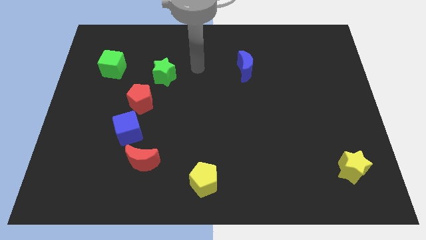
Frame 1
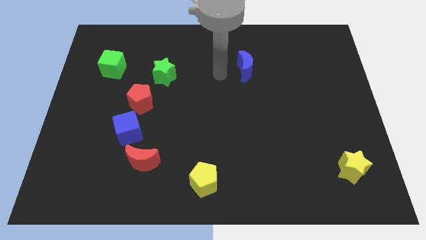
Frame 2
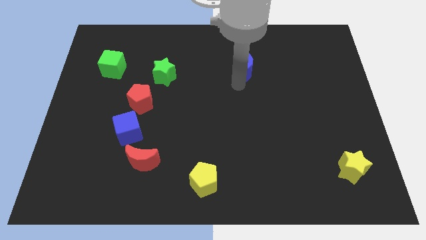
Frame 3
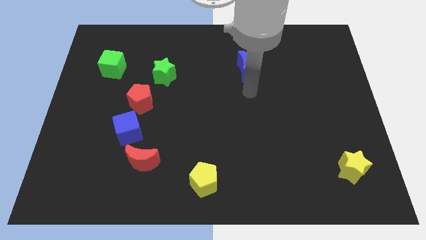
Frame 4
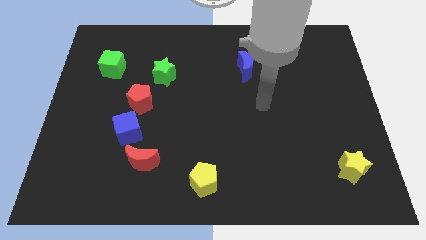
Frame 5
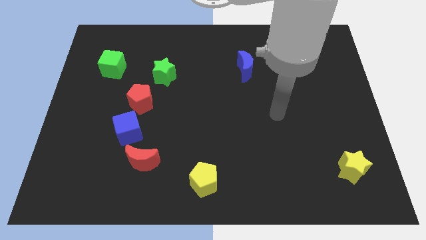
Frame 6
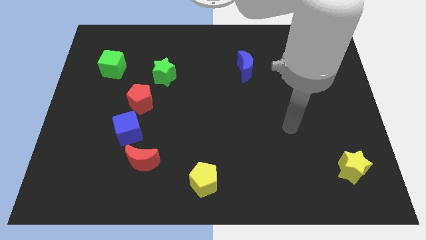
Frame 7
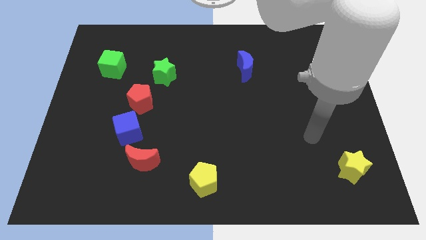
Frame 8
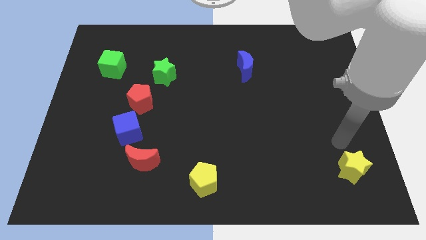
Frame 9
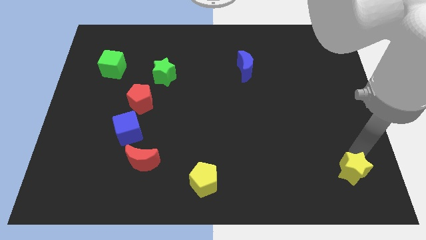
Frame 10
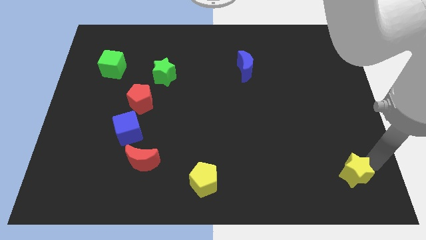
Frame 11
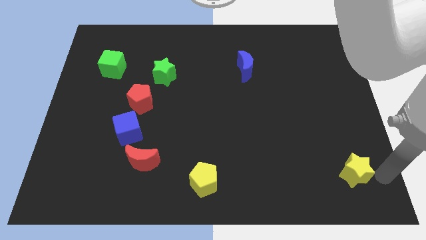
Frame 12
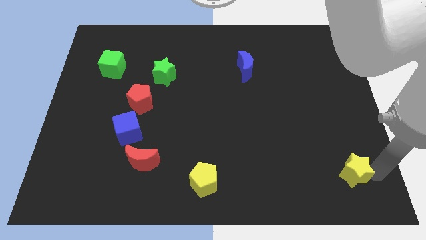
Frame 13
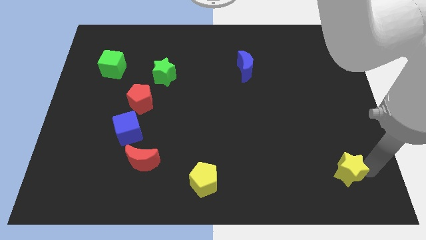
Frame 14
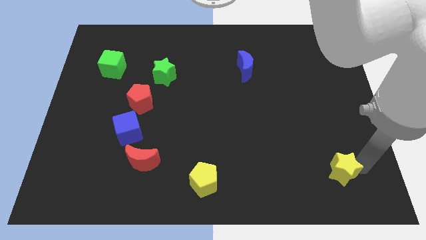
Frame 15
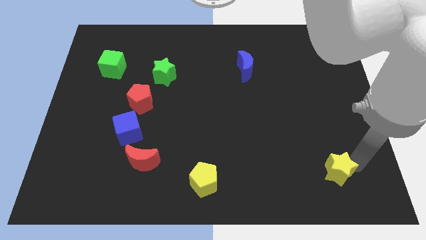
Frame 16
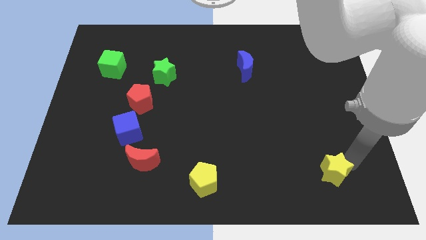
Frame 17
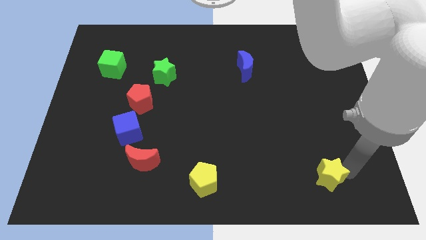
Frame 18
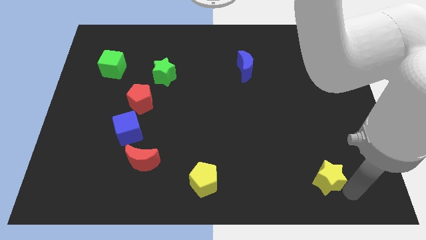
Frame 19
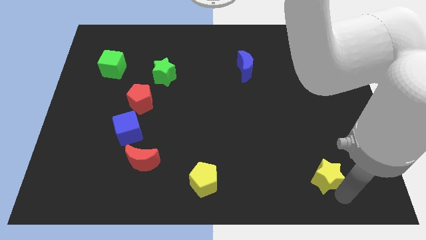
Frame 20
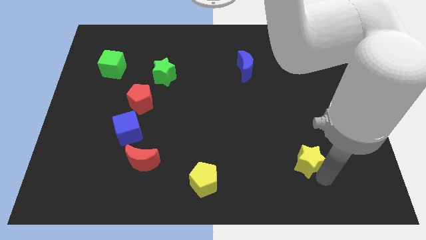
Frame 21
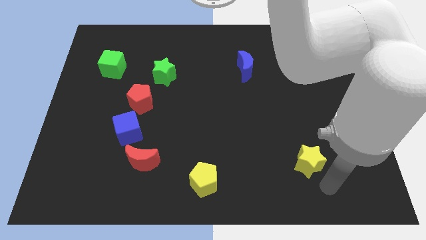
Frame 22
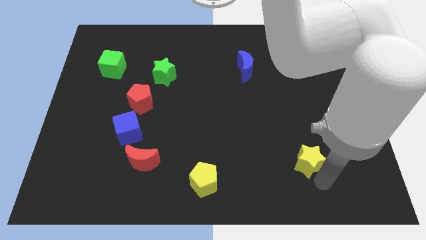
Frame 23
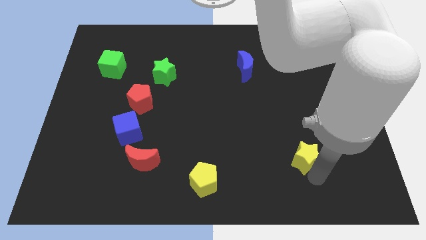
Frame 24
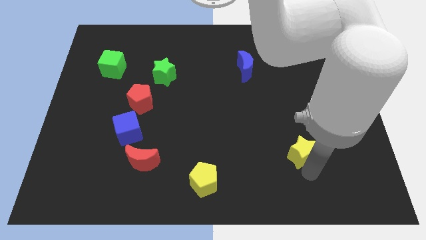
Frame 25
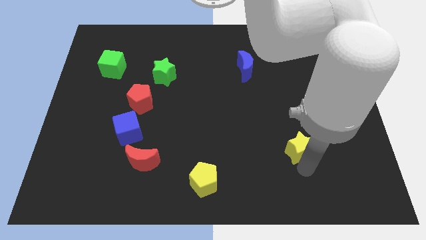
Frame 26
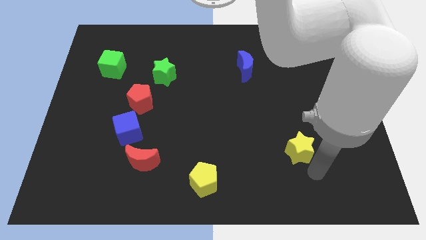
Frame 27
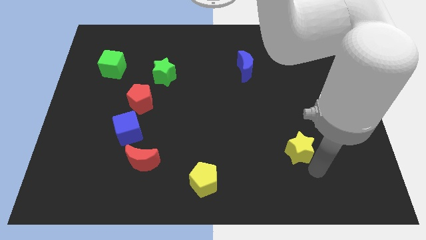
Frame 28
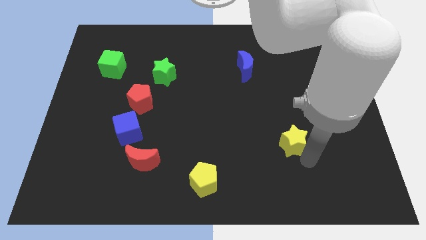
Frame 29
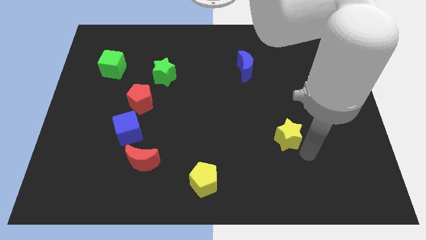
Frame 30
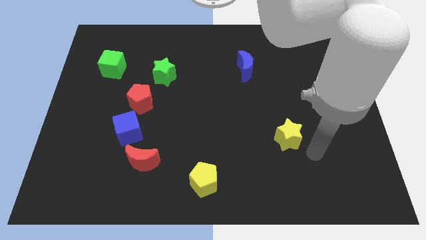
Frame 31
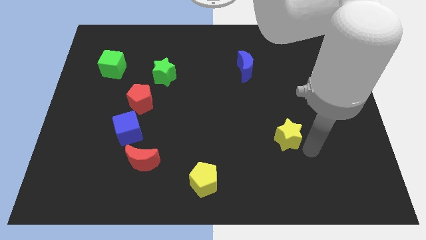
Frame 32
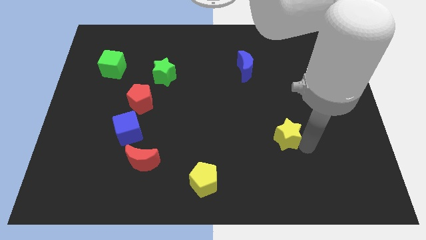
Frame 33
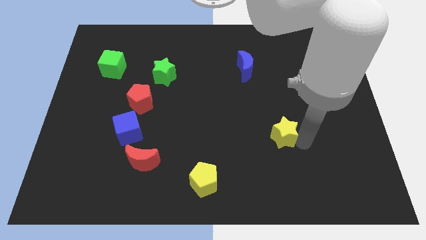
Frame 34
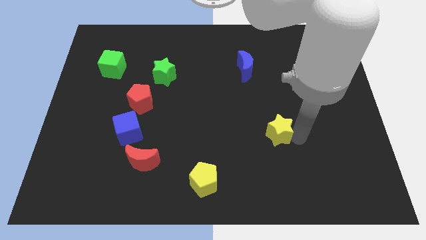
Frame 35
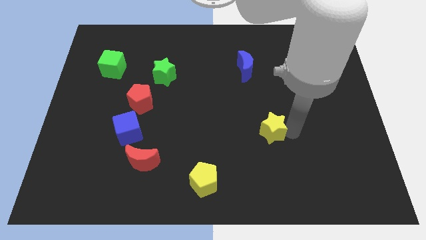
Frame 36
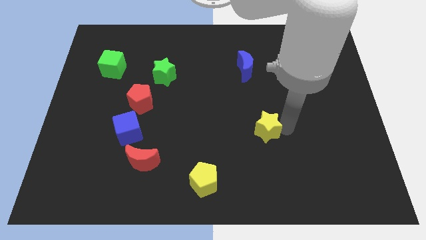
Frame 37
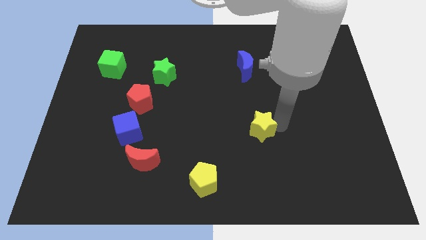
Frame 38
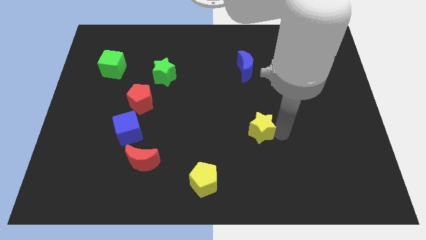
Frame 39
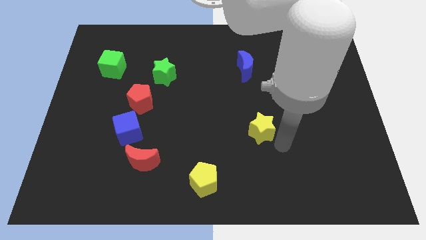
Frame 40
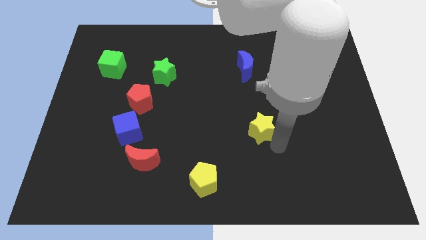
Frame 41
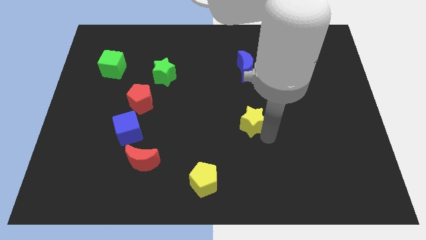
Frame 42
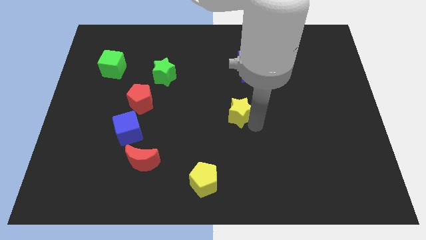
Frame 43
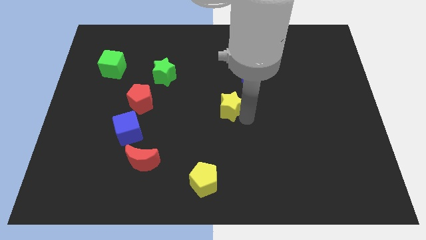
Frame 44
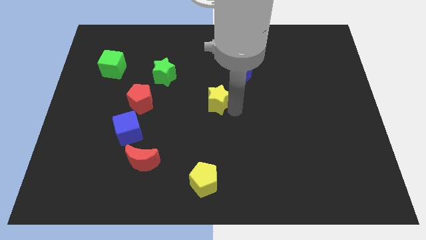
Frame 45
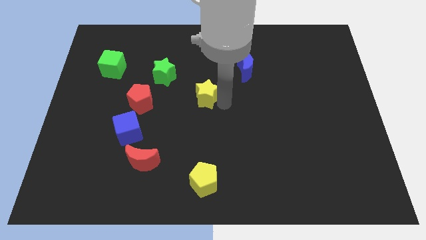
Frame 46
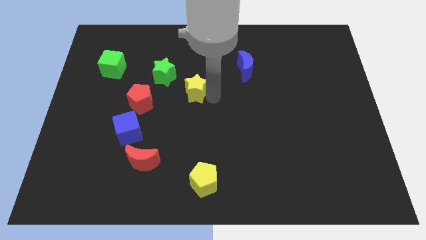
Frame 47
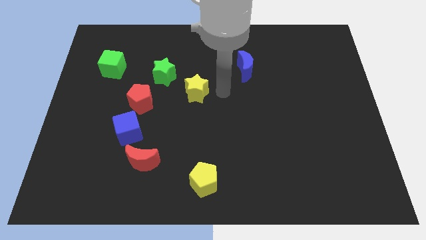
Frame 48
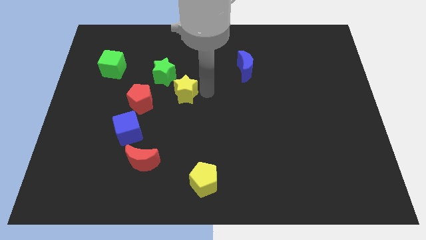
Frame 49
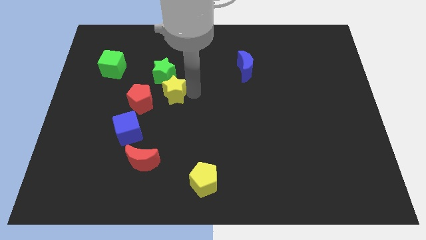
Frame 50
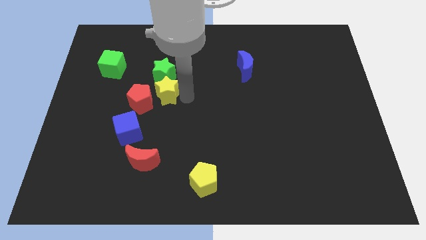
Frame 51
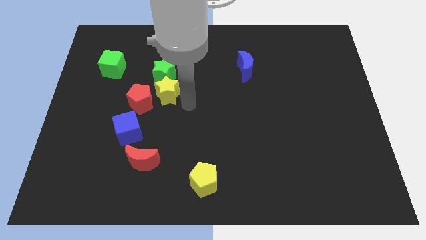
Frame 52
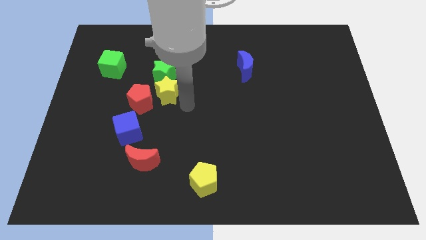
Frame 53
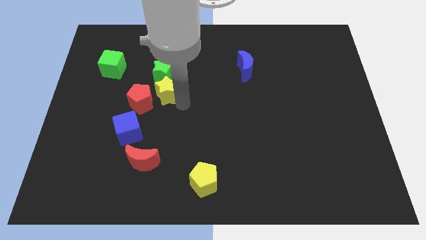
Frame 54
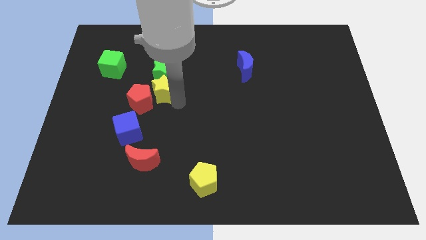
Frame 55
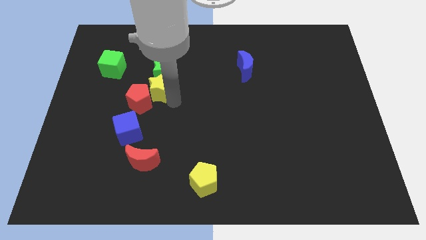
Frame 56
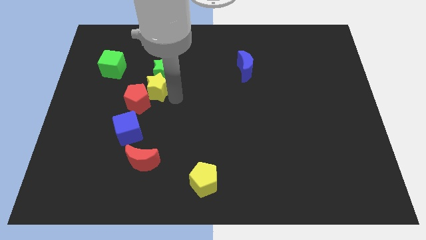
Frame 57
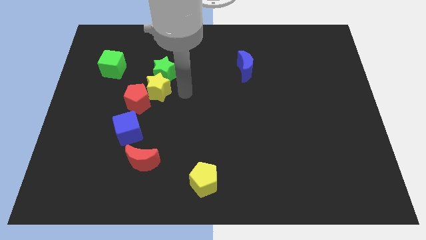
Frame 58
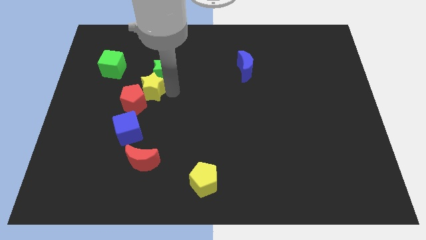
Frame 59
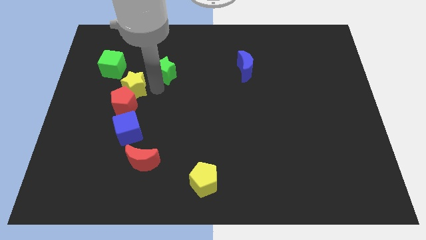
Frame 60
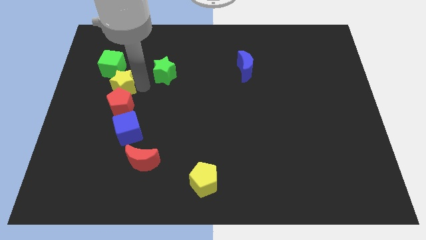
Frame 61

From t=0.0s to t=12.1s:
move the yellow star below the green cube

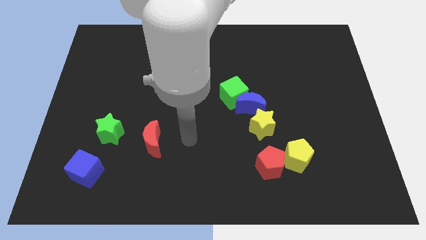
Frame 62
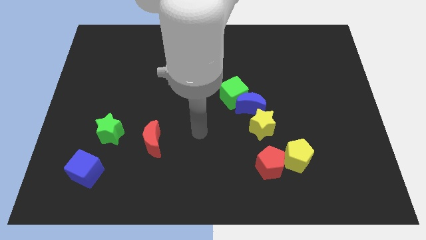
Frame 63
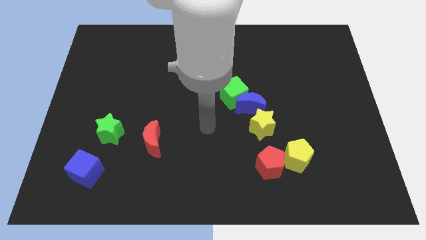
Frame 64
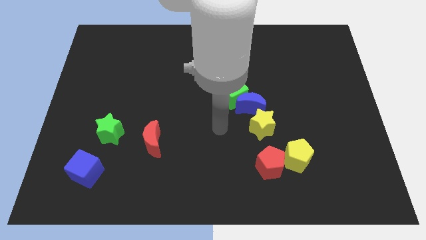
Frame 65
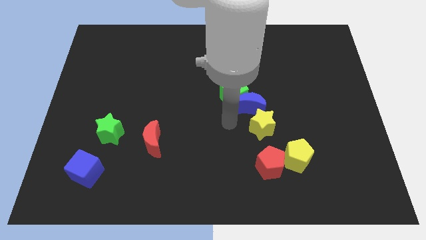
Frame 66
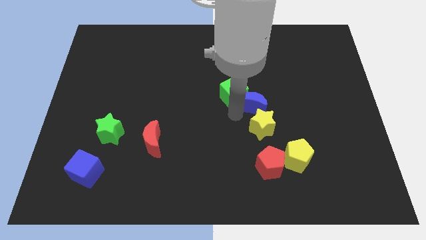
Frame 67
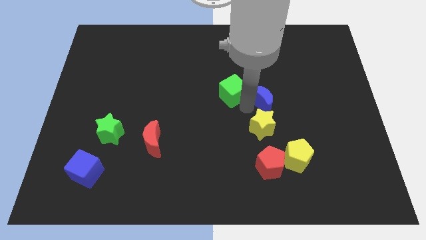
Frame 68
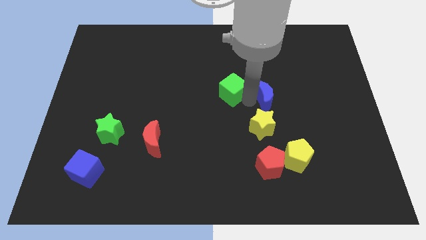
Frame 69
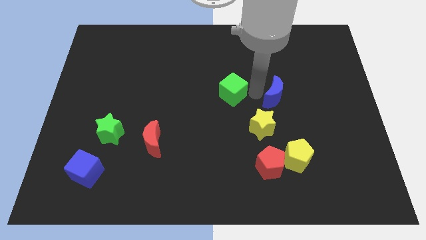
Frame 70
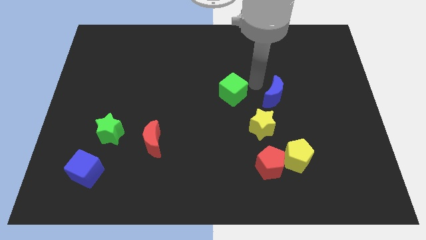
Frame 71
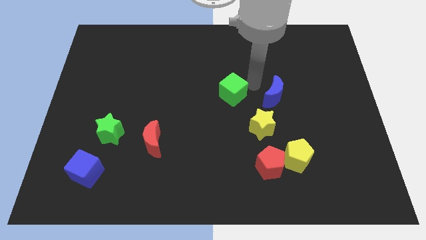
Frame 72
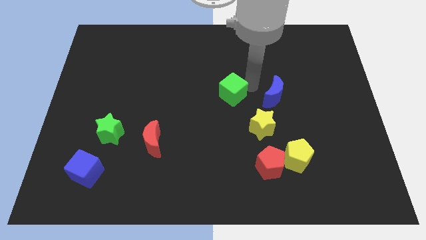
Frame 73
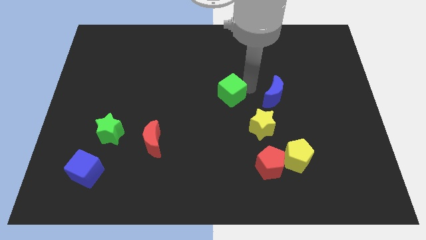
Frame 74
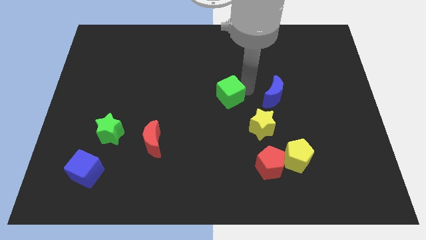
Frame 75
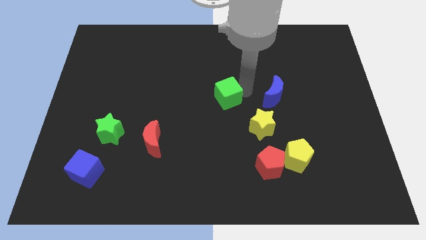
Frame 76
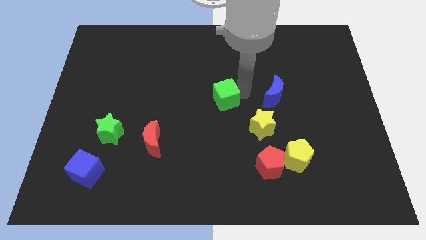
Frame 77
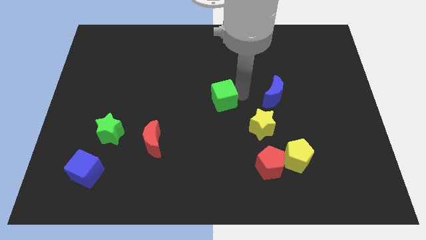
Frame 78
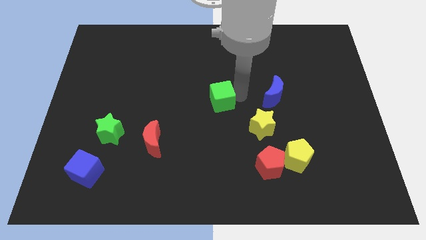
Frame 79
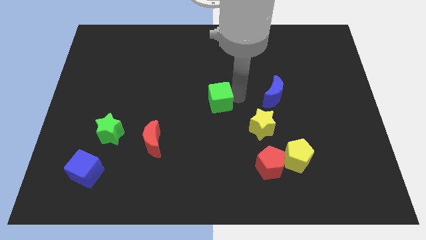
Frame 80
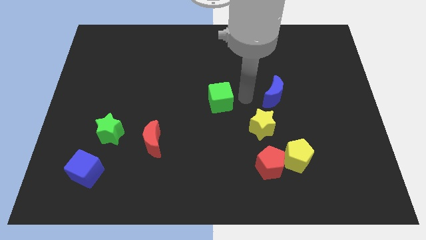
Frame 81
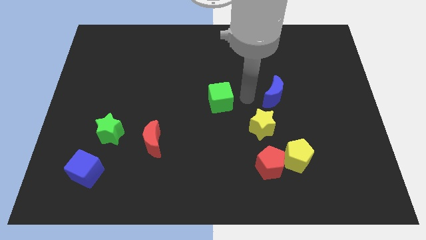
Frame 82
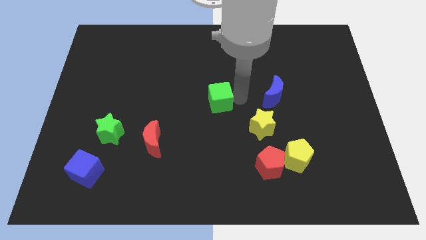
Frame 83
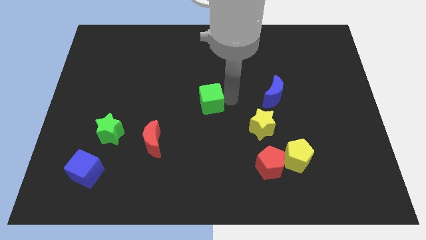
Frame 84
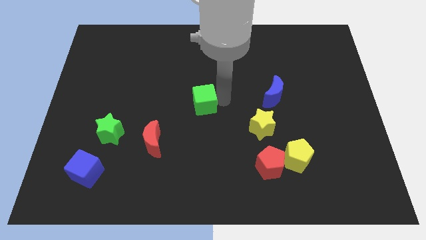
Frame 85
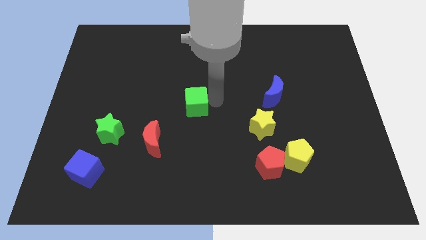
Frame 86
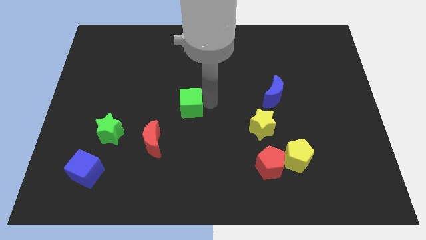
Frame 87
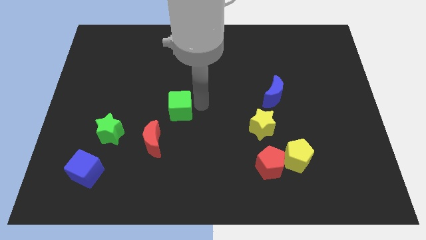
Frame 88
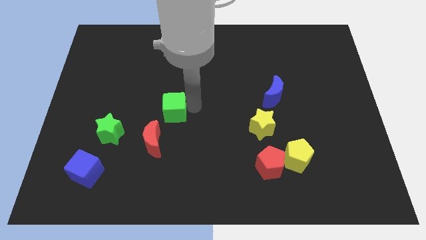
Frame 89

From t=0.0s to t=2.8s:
slide the green cube to the top of the red moon
